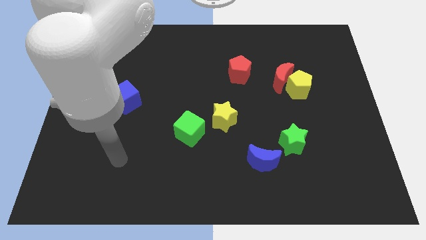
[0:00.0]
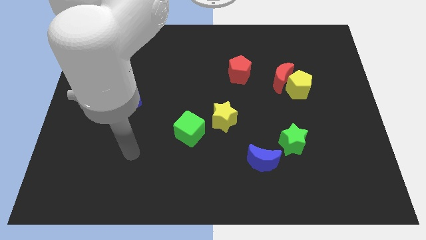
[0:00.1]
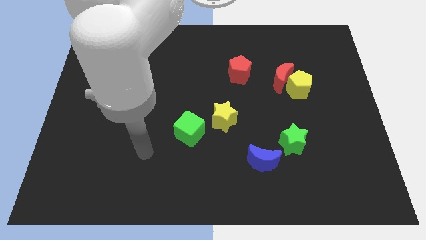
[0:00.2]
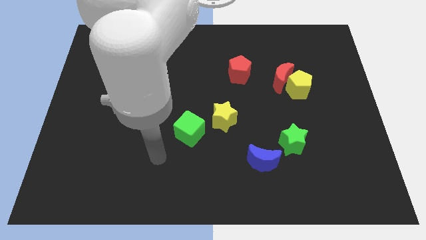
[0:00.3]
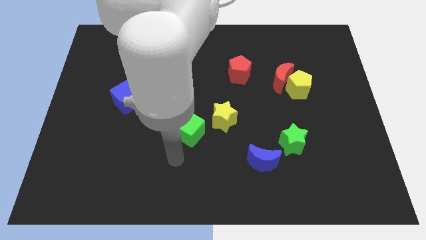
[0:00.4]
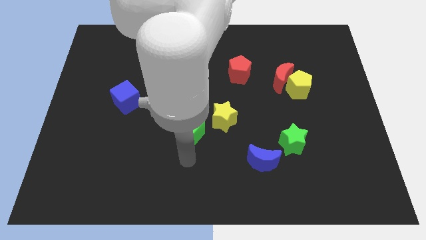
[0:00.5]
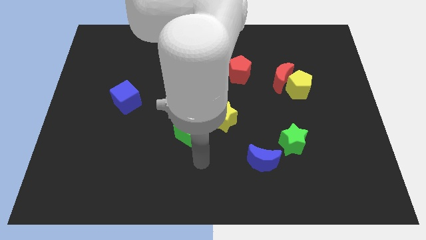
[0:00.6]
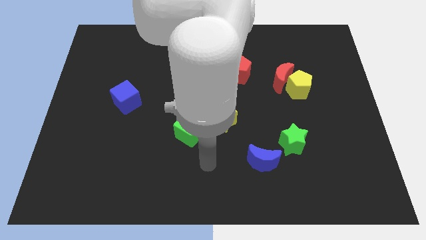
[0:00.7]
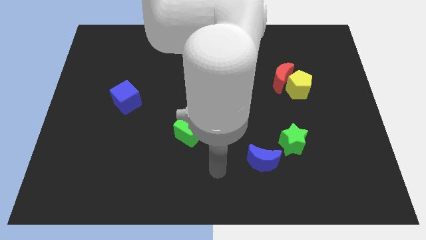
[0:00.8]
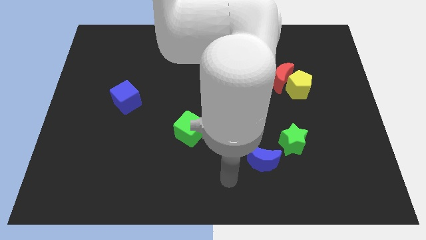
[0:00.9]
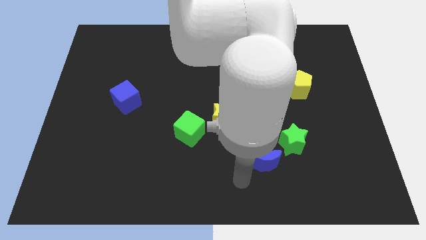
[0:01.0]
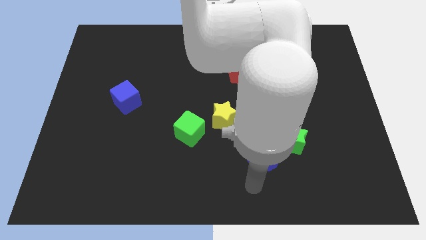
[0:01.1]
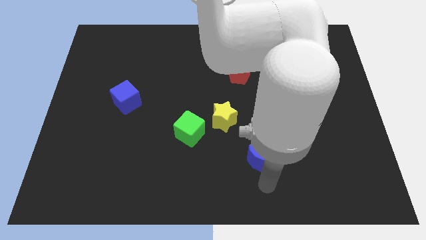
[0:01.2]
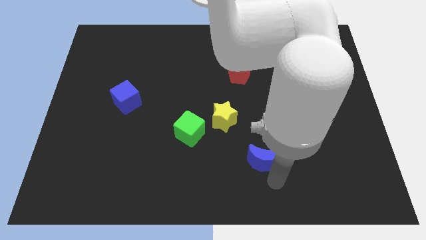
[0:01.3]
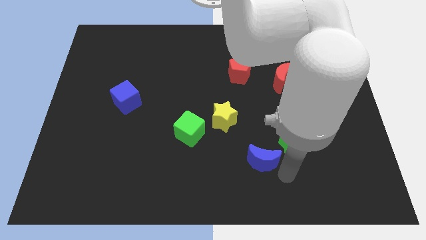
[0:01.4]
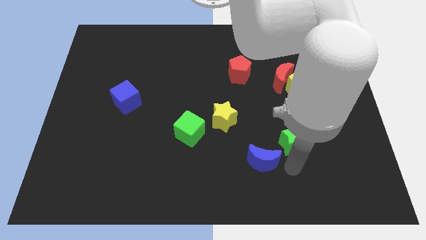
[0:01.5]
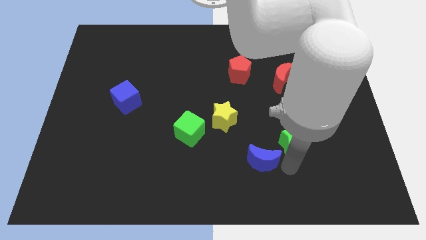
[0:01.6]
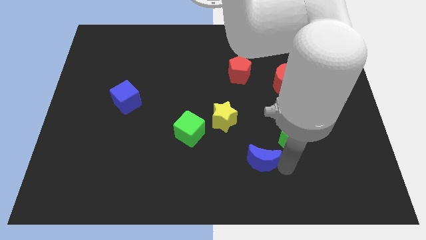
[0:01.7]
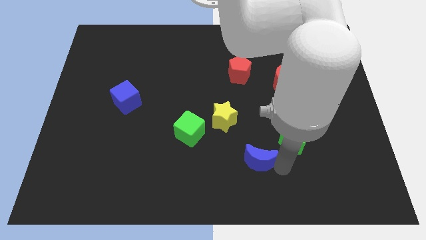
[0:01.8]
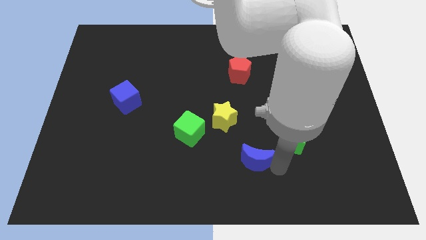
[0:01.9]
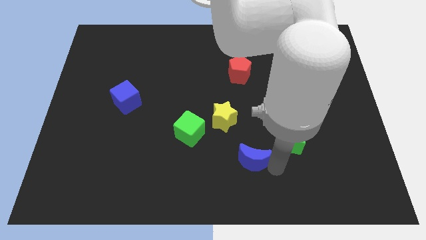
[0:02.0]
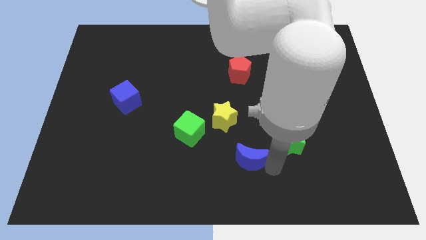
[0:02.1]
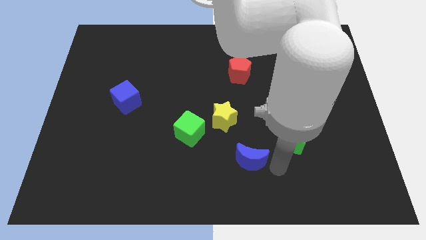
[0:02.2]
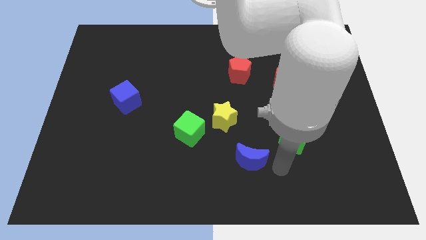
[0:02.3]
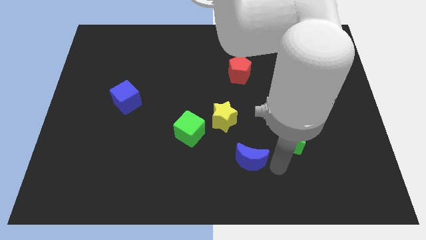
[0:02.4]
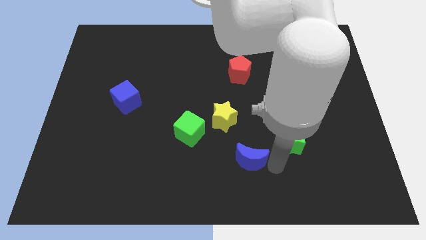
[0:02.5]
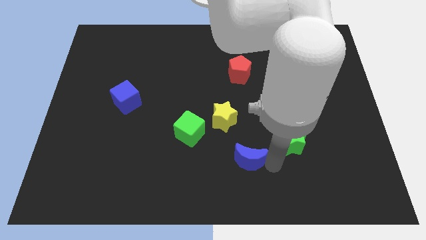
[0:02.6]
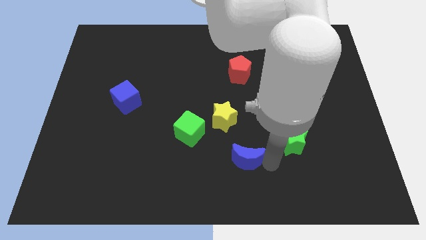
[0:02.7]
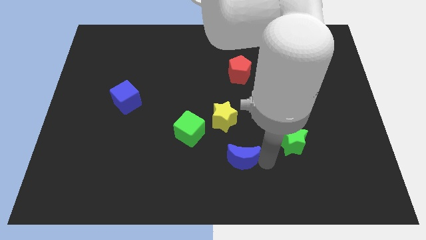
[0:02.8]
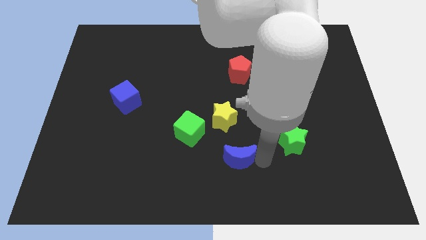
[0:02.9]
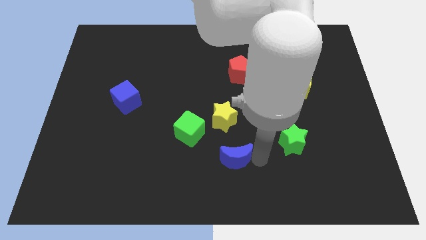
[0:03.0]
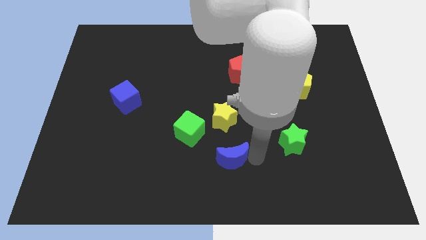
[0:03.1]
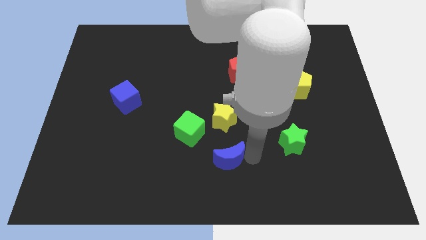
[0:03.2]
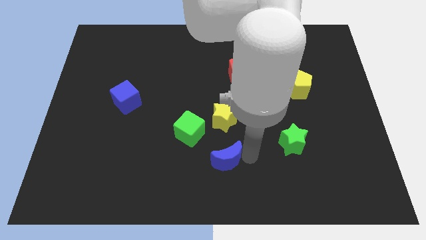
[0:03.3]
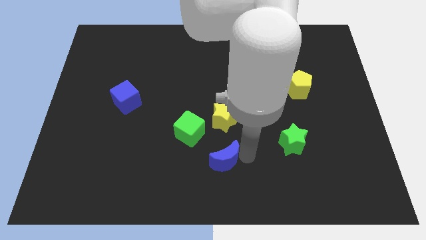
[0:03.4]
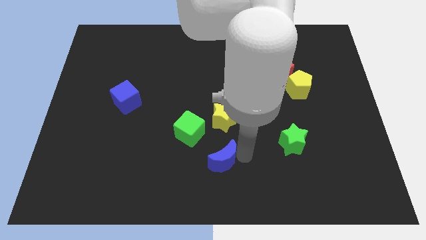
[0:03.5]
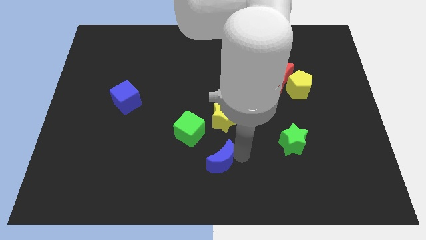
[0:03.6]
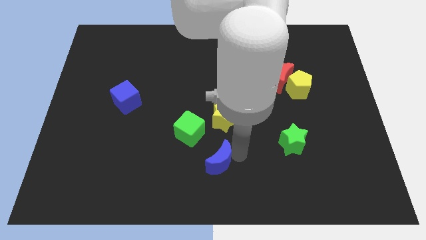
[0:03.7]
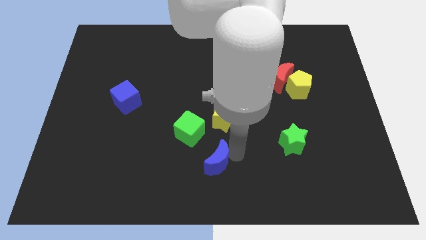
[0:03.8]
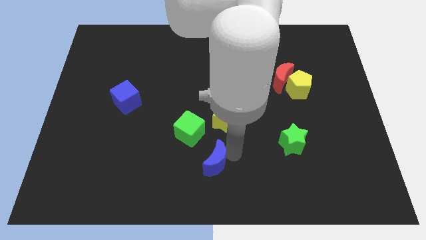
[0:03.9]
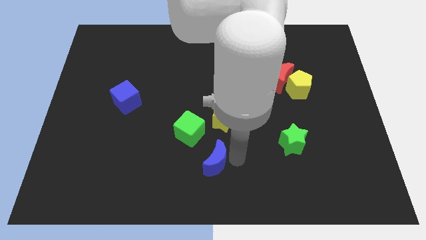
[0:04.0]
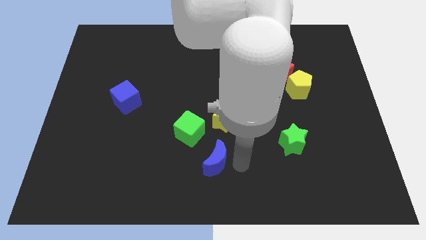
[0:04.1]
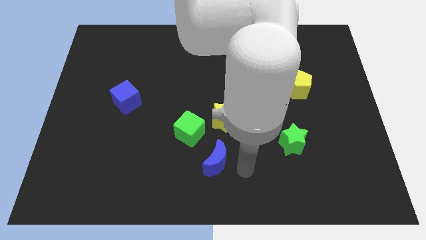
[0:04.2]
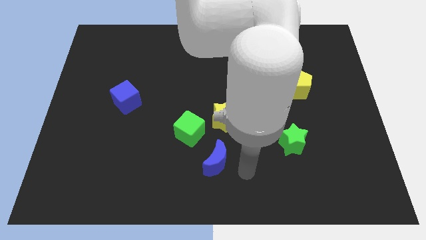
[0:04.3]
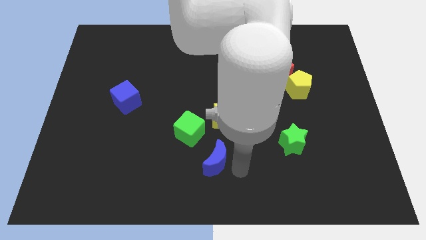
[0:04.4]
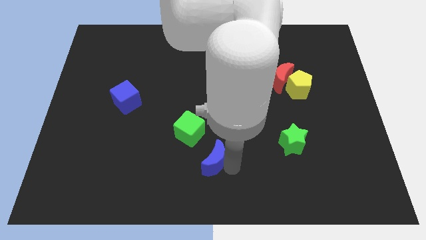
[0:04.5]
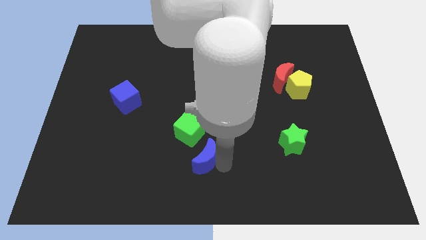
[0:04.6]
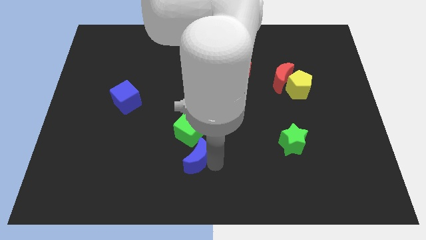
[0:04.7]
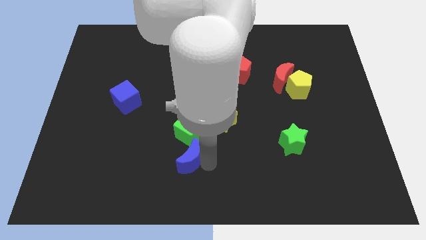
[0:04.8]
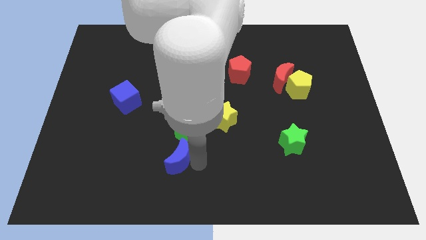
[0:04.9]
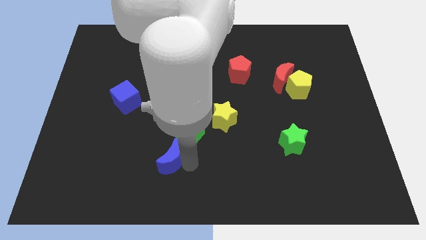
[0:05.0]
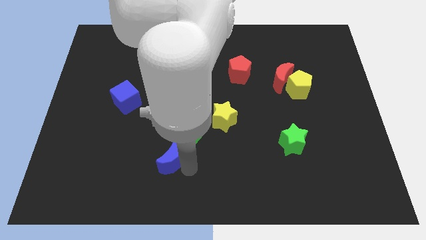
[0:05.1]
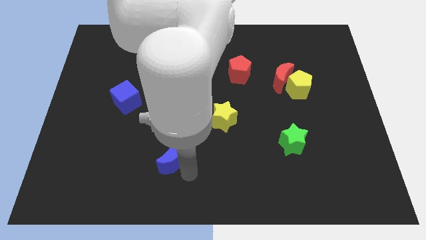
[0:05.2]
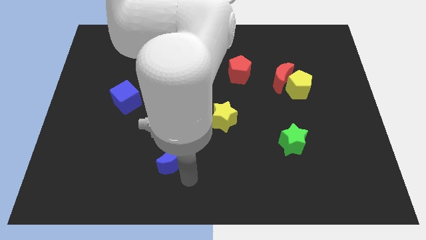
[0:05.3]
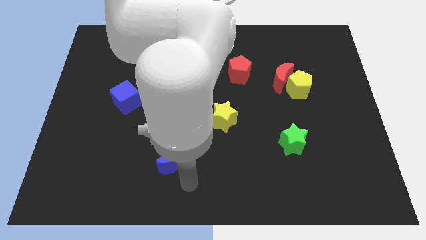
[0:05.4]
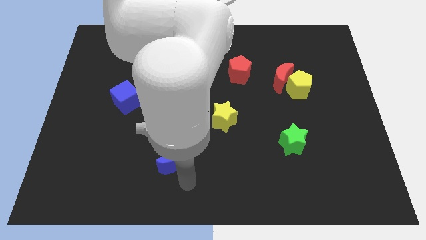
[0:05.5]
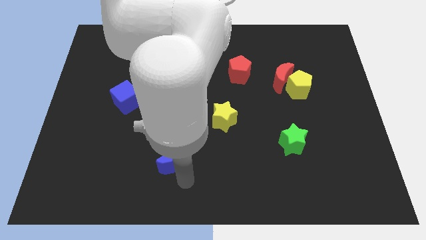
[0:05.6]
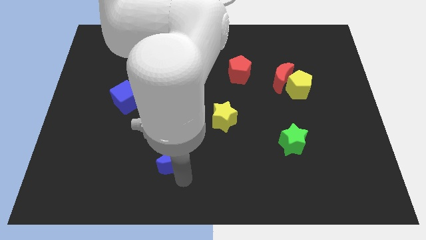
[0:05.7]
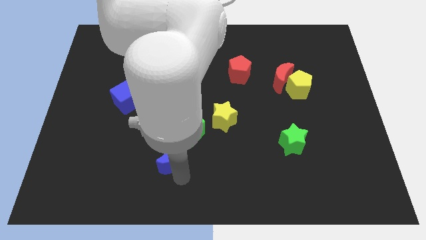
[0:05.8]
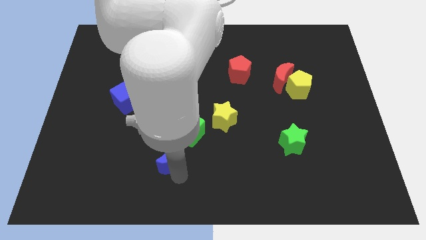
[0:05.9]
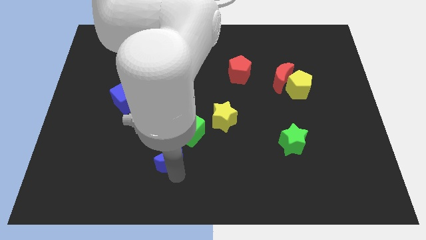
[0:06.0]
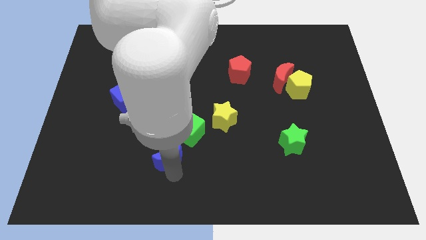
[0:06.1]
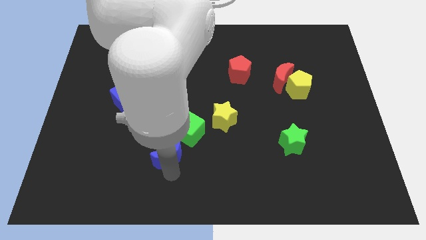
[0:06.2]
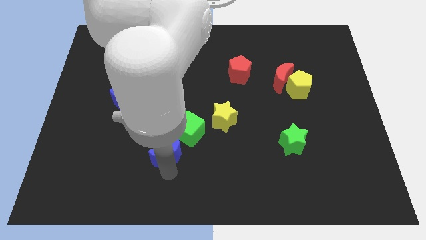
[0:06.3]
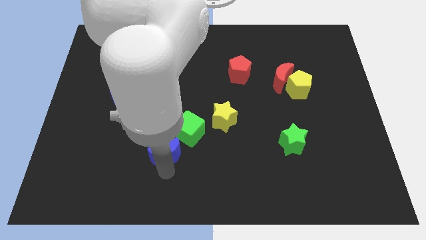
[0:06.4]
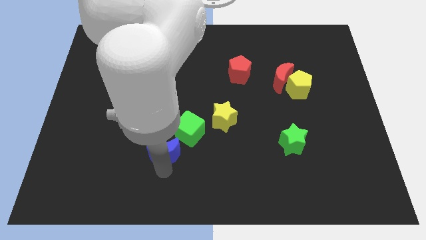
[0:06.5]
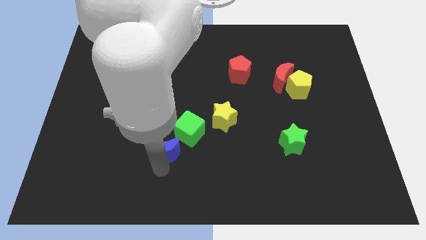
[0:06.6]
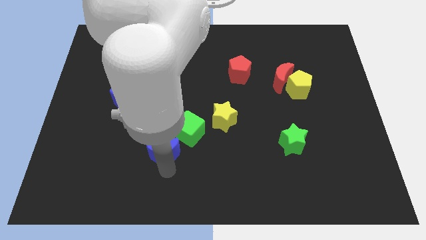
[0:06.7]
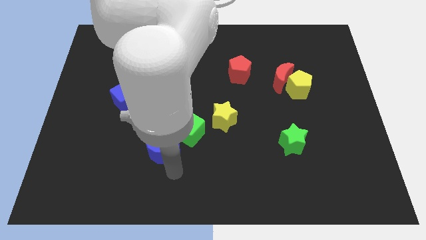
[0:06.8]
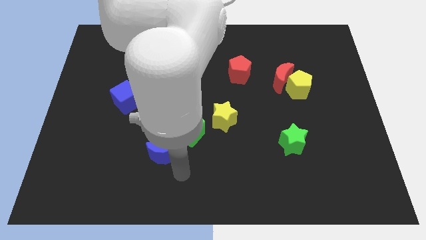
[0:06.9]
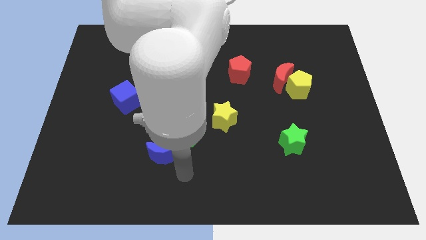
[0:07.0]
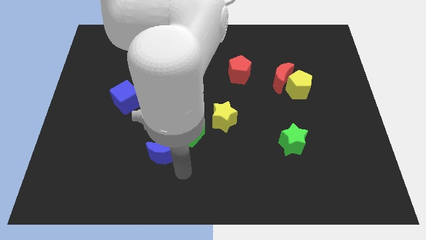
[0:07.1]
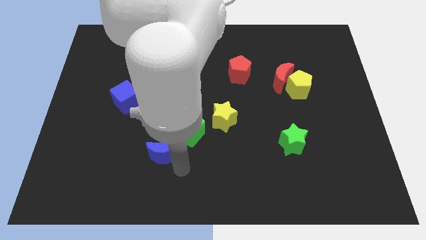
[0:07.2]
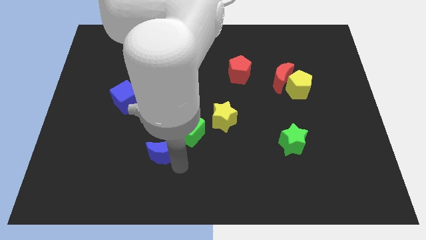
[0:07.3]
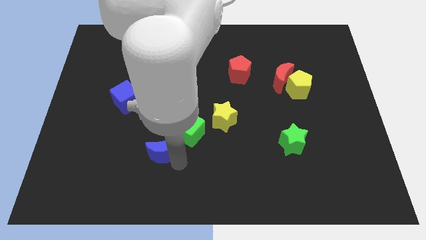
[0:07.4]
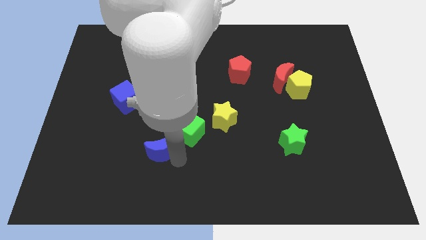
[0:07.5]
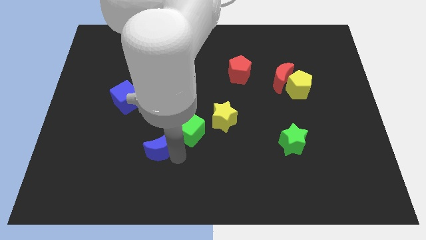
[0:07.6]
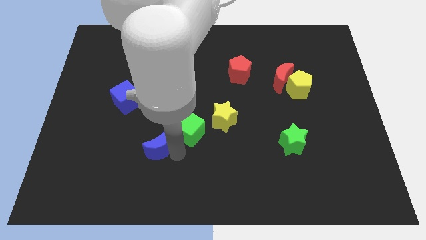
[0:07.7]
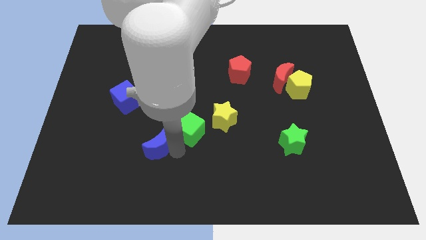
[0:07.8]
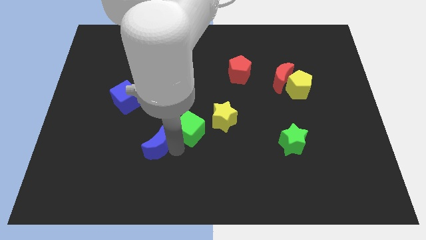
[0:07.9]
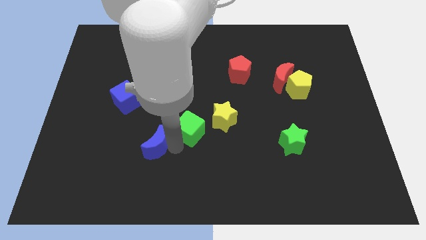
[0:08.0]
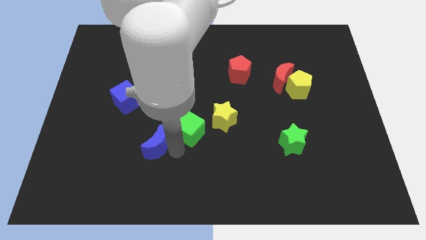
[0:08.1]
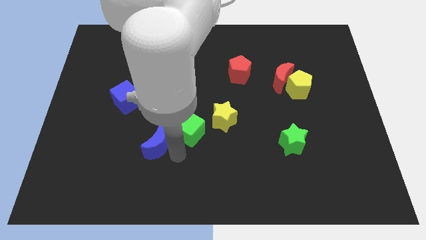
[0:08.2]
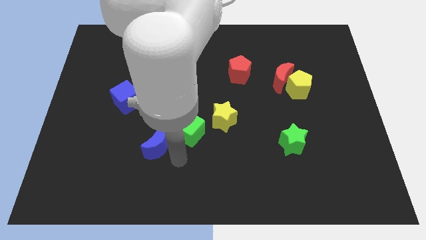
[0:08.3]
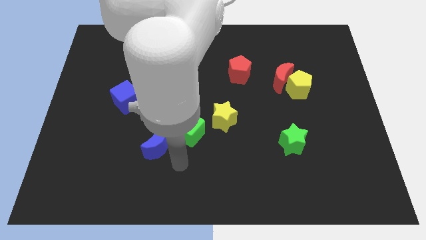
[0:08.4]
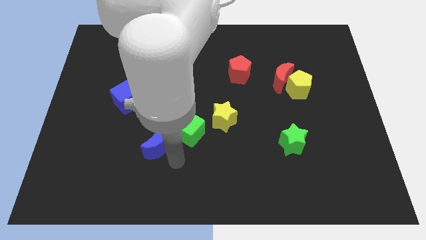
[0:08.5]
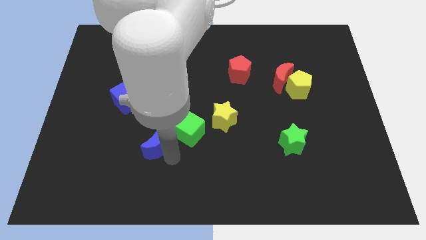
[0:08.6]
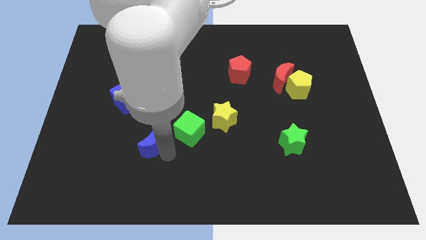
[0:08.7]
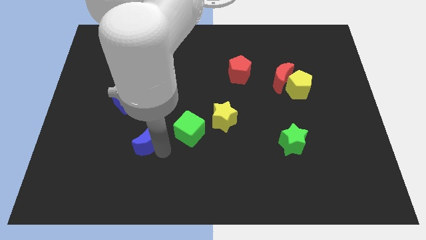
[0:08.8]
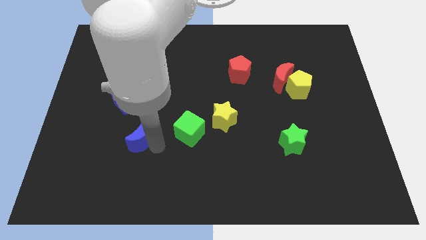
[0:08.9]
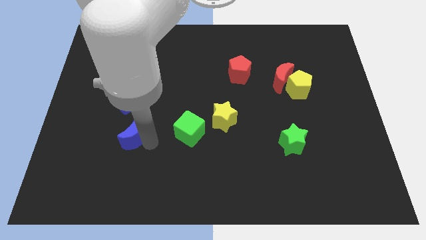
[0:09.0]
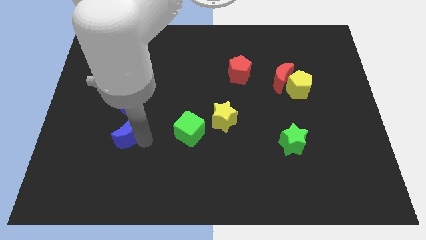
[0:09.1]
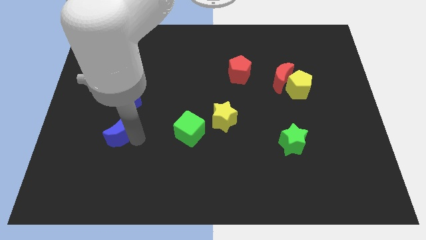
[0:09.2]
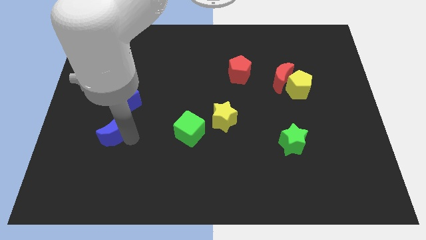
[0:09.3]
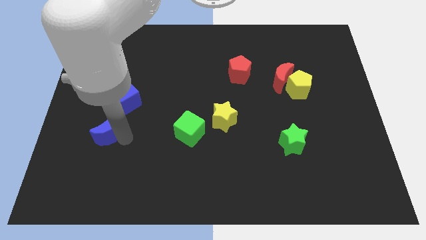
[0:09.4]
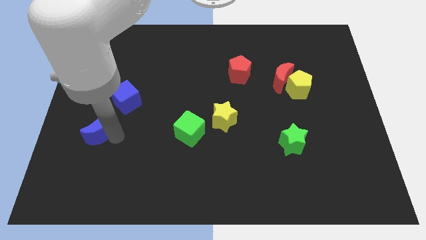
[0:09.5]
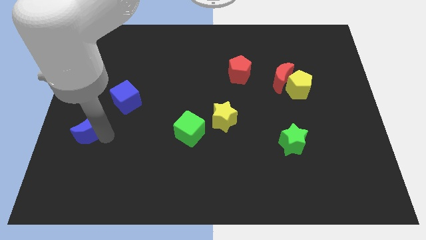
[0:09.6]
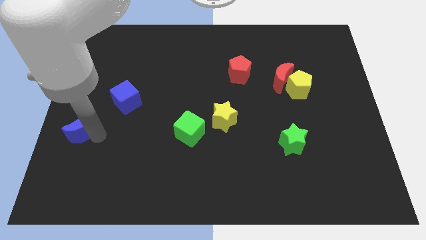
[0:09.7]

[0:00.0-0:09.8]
put the blue moon to the left side of the board
